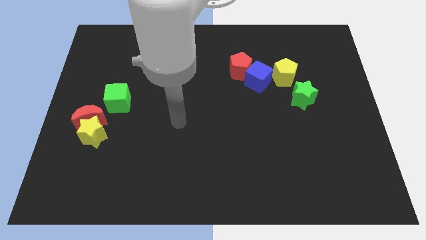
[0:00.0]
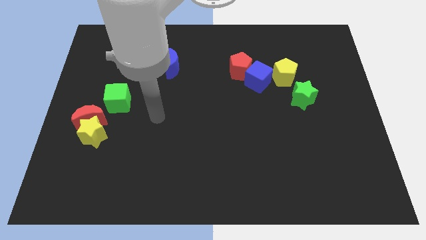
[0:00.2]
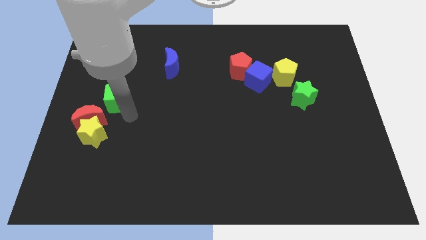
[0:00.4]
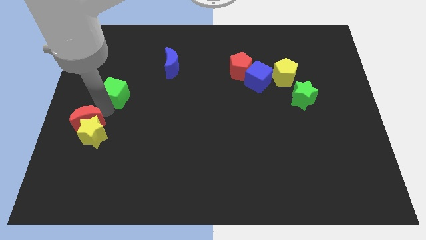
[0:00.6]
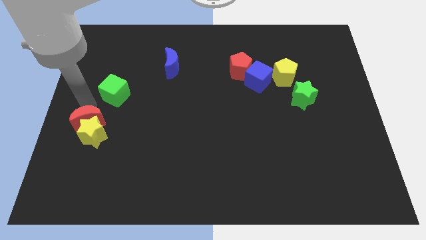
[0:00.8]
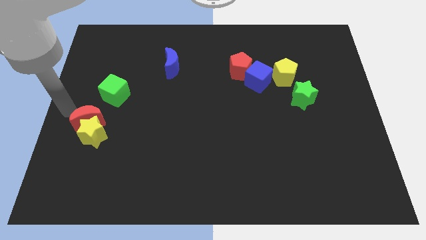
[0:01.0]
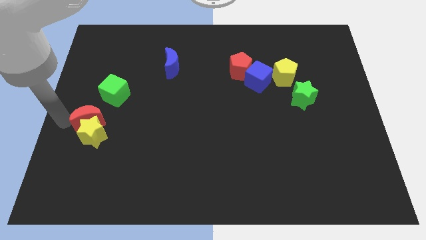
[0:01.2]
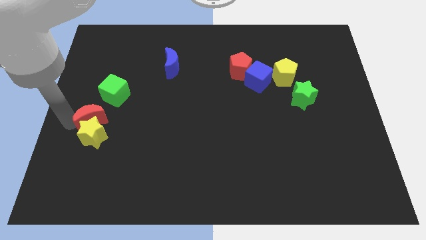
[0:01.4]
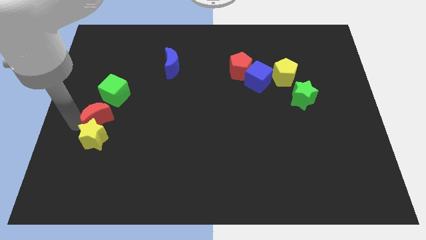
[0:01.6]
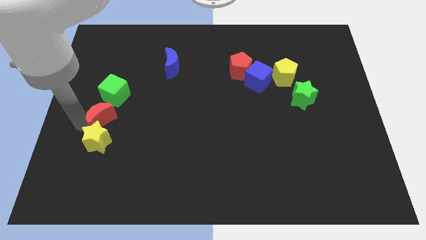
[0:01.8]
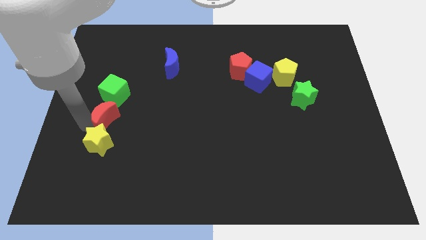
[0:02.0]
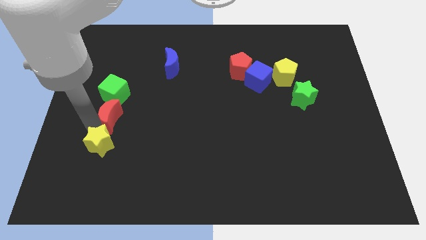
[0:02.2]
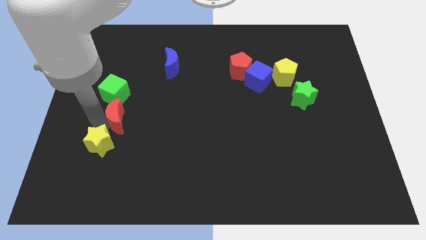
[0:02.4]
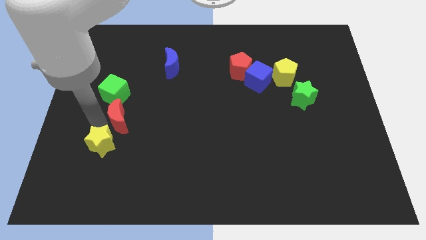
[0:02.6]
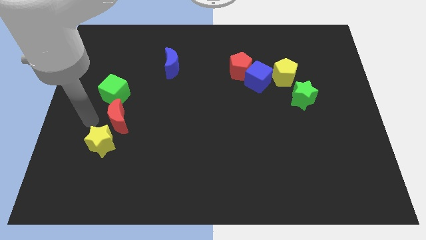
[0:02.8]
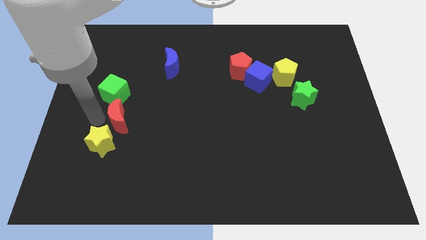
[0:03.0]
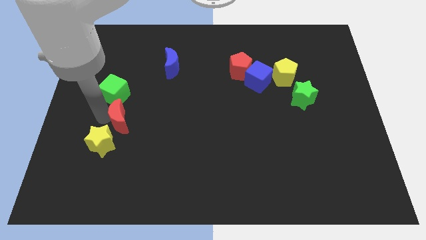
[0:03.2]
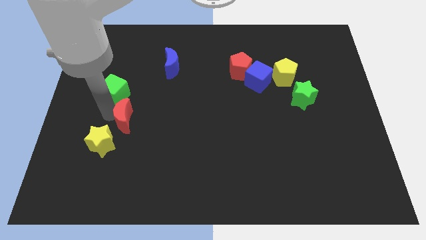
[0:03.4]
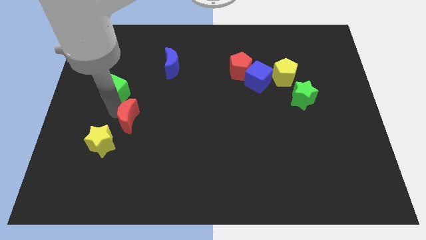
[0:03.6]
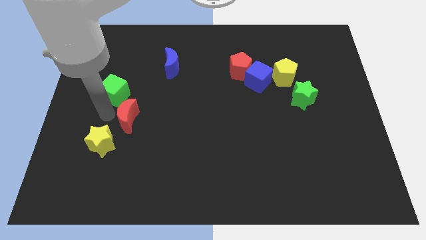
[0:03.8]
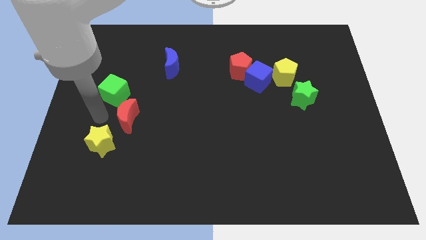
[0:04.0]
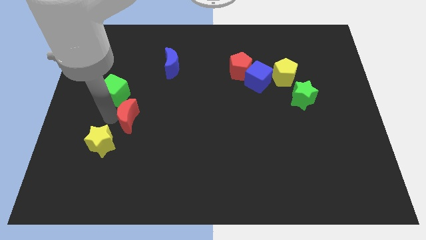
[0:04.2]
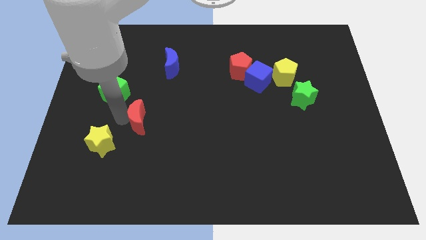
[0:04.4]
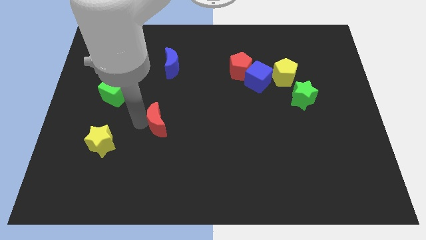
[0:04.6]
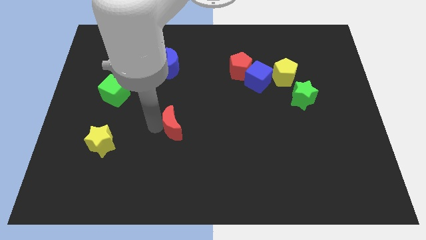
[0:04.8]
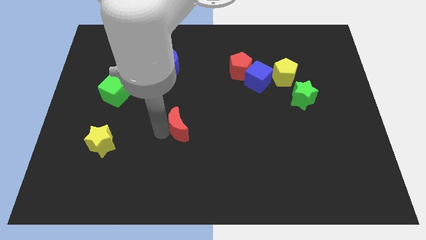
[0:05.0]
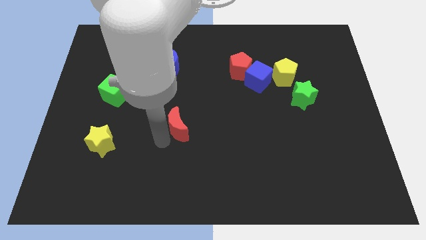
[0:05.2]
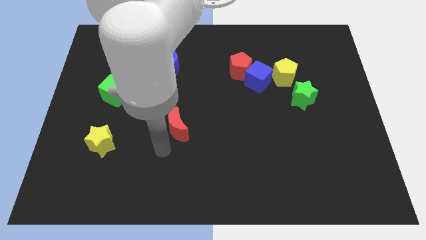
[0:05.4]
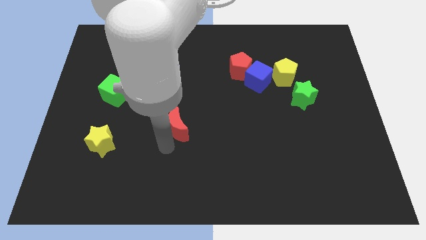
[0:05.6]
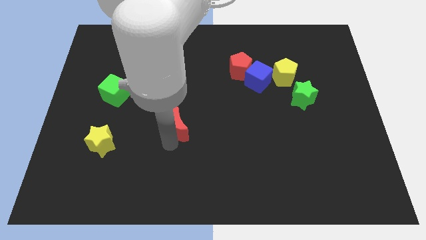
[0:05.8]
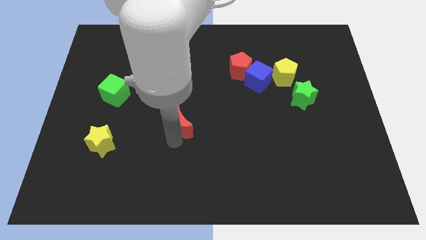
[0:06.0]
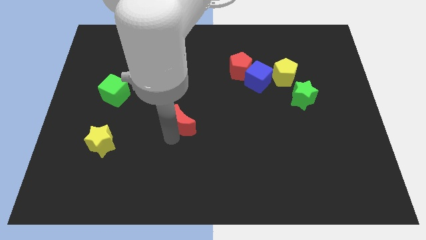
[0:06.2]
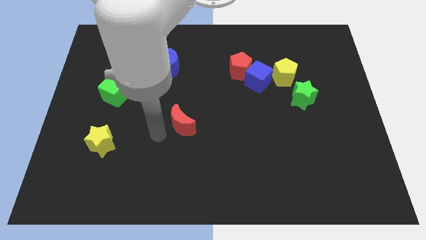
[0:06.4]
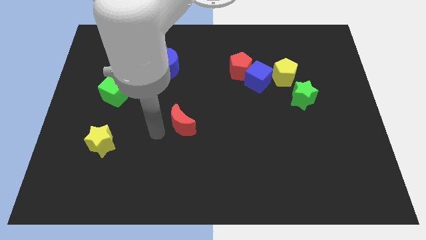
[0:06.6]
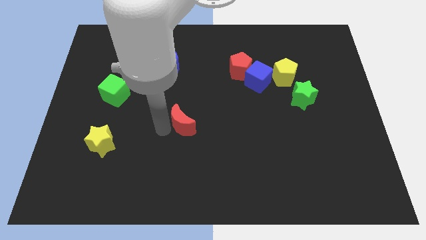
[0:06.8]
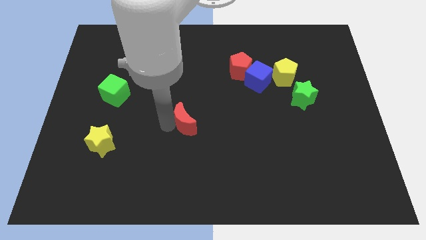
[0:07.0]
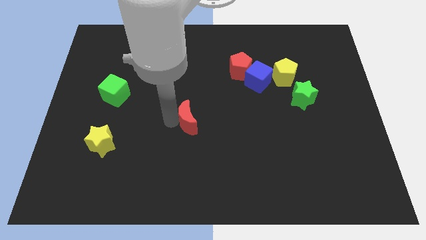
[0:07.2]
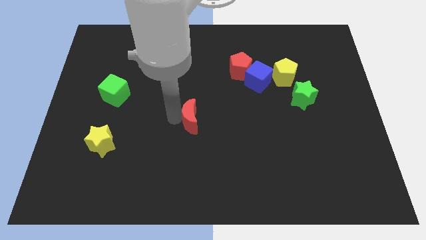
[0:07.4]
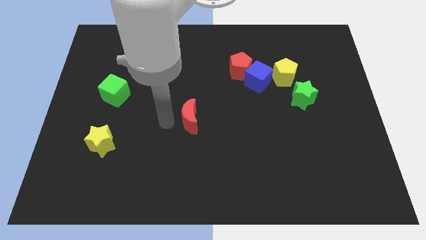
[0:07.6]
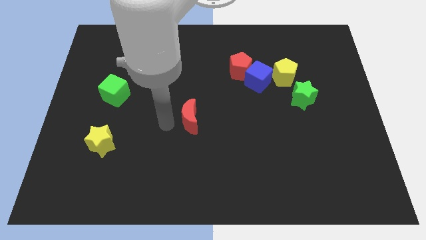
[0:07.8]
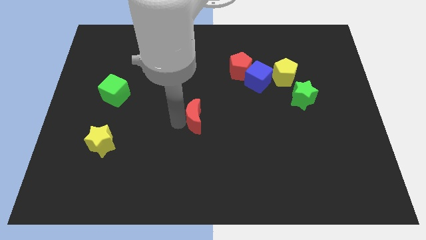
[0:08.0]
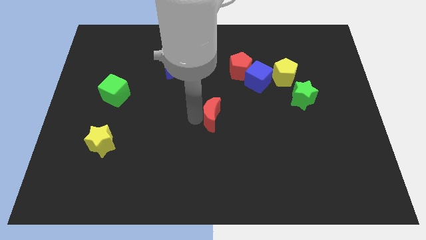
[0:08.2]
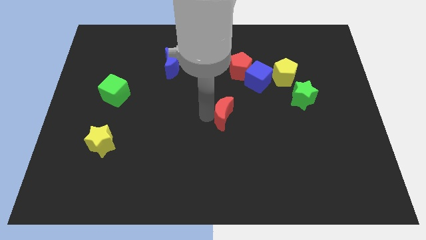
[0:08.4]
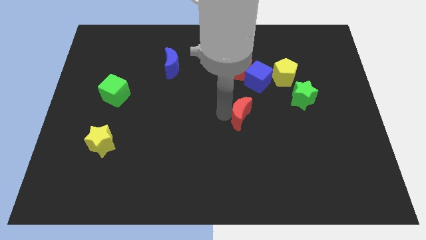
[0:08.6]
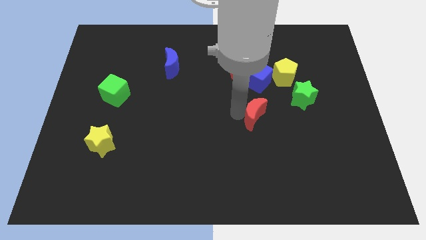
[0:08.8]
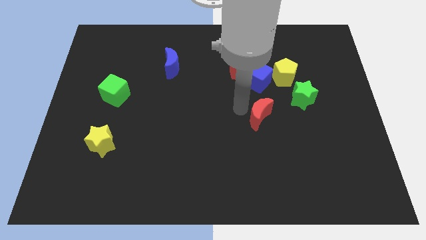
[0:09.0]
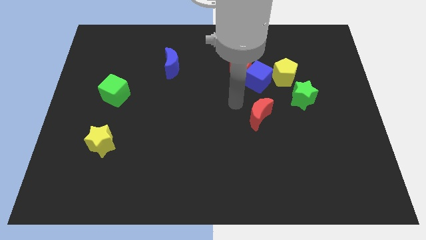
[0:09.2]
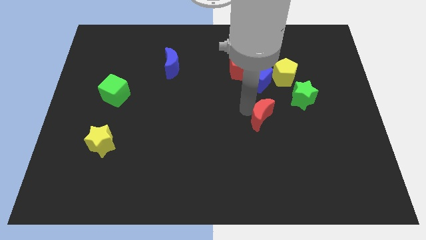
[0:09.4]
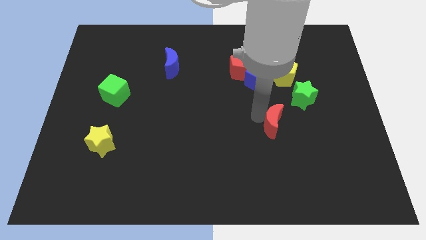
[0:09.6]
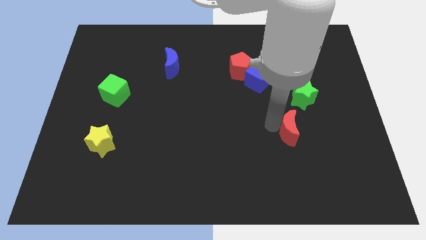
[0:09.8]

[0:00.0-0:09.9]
push the red moon to the bottom side of the green star

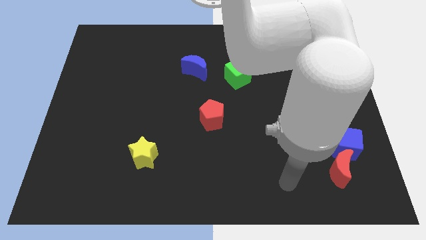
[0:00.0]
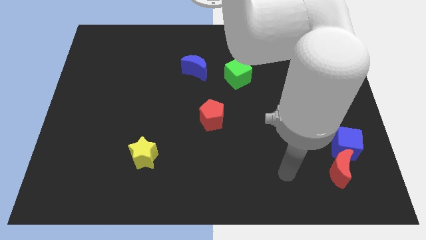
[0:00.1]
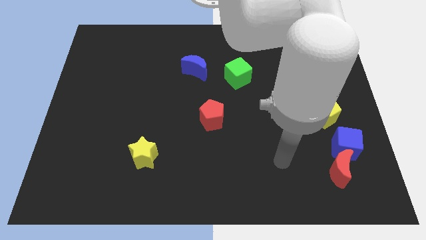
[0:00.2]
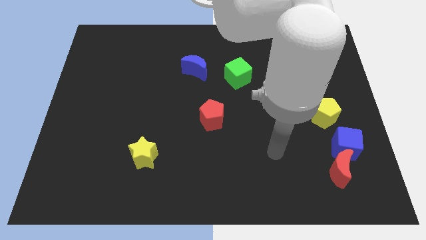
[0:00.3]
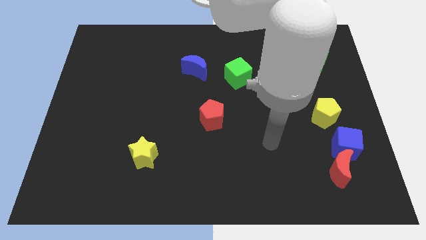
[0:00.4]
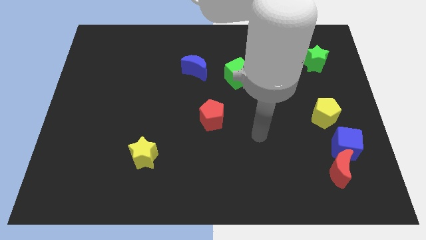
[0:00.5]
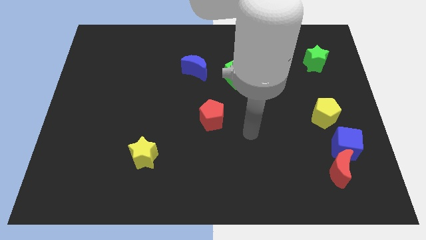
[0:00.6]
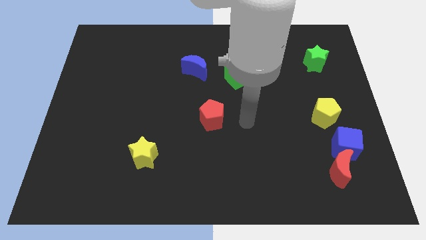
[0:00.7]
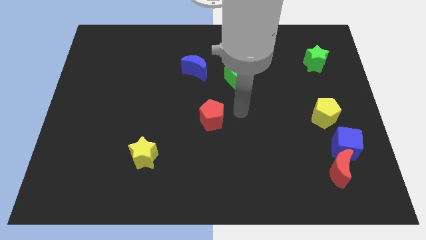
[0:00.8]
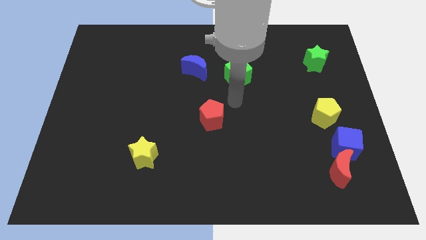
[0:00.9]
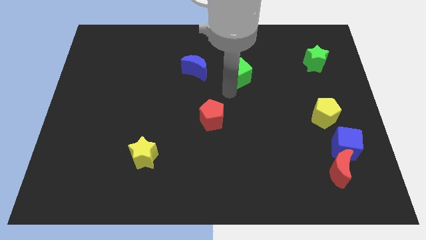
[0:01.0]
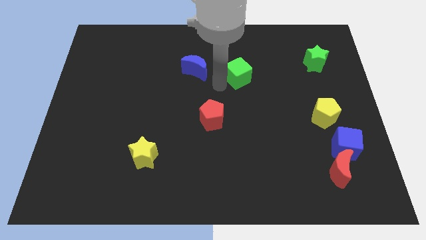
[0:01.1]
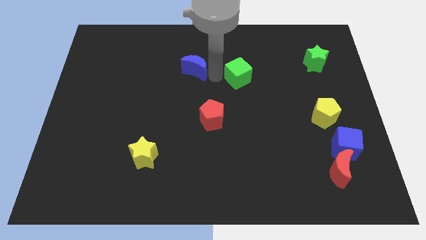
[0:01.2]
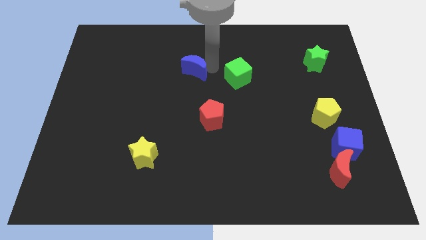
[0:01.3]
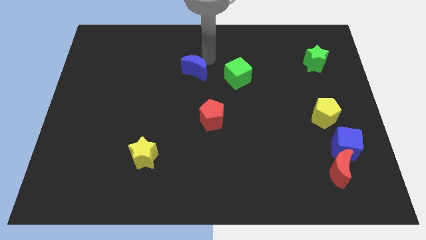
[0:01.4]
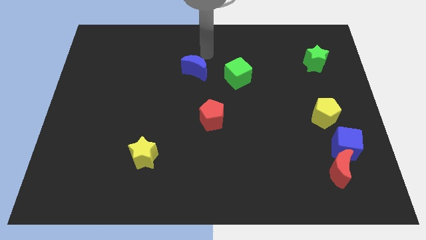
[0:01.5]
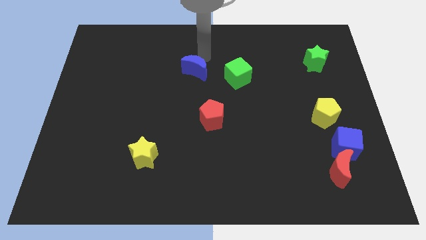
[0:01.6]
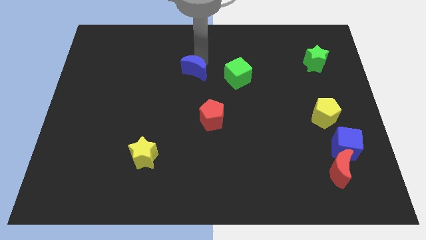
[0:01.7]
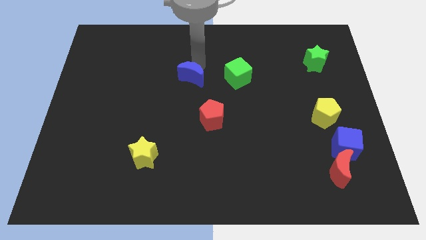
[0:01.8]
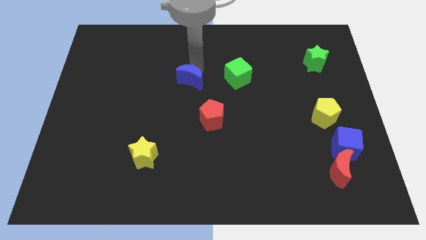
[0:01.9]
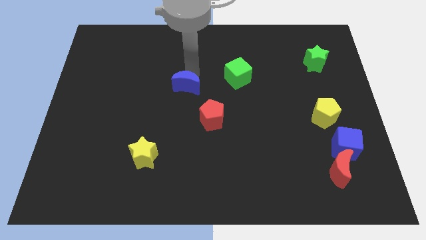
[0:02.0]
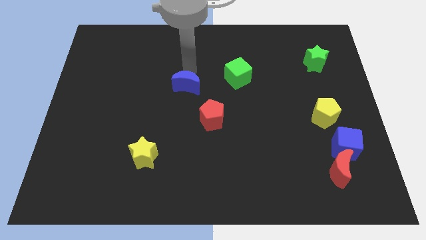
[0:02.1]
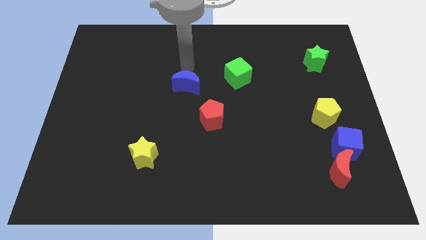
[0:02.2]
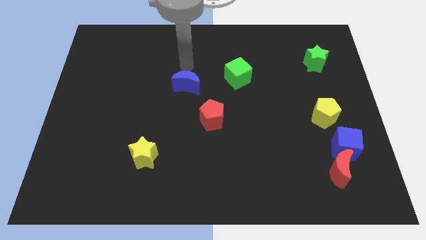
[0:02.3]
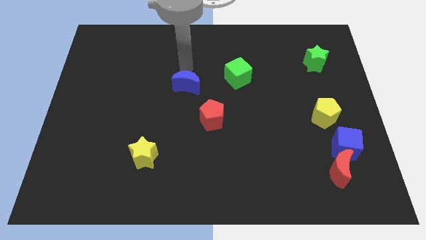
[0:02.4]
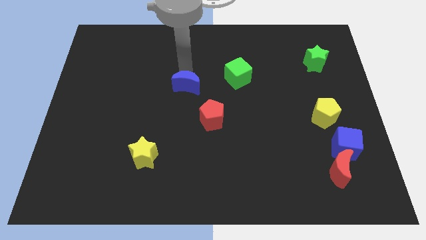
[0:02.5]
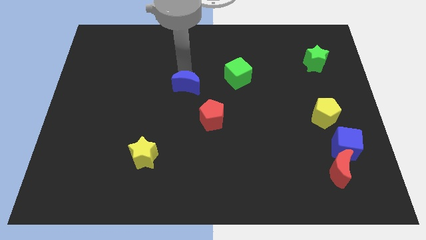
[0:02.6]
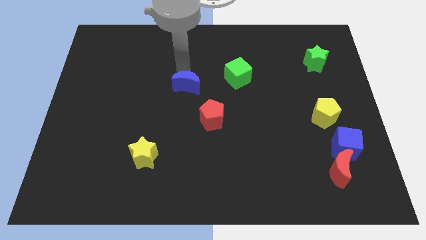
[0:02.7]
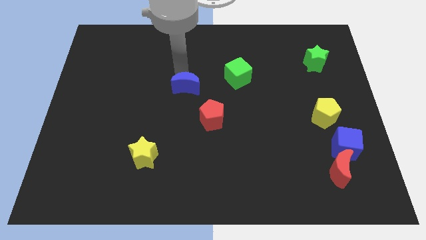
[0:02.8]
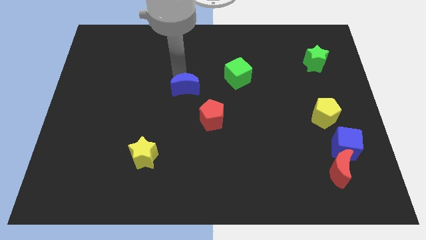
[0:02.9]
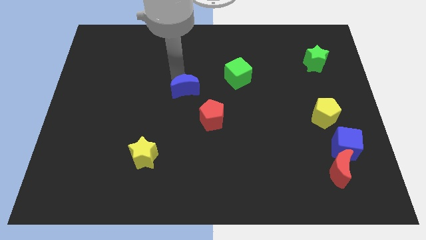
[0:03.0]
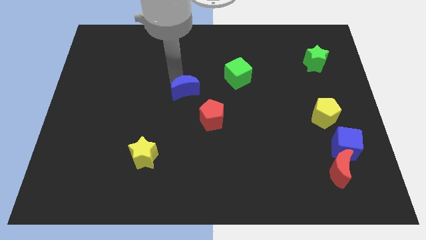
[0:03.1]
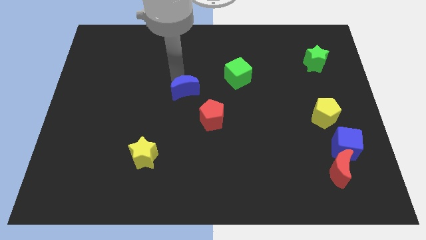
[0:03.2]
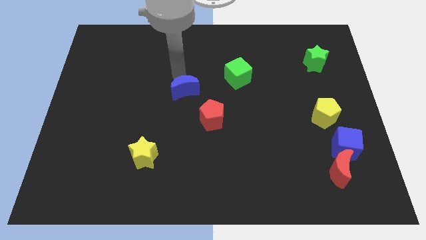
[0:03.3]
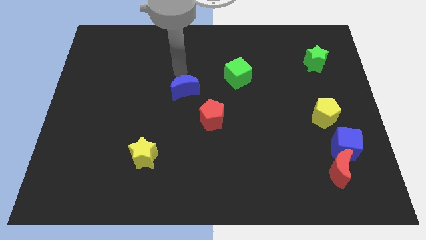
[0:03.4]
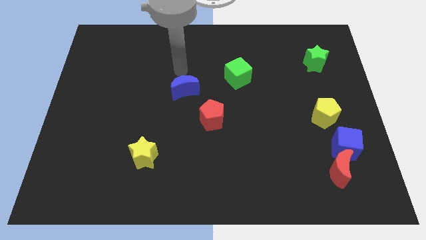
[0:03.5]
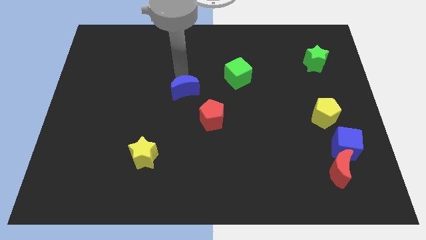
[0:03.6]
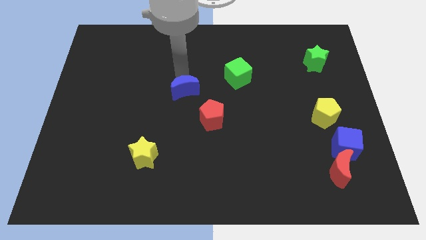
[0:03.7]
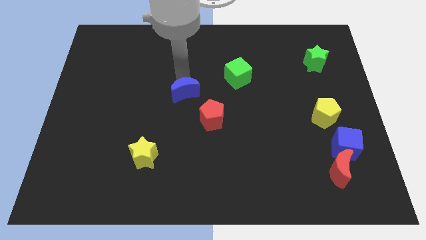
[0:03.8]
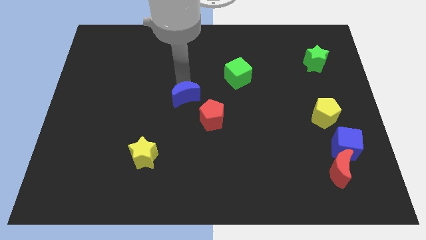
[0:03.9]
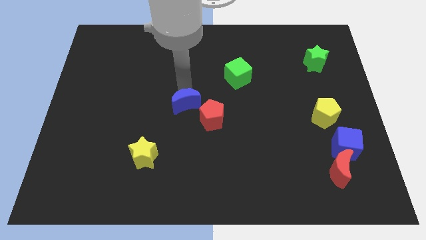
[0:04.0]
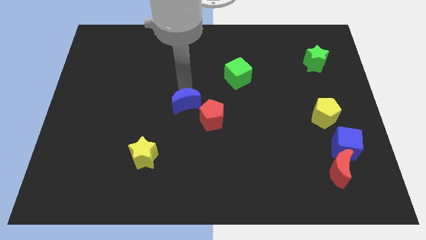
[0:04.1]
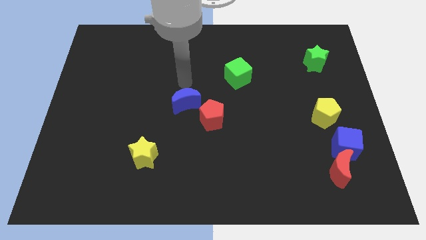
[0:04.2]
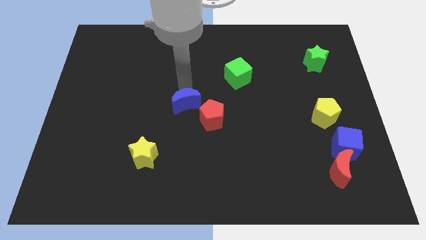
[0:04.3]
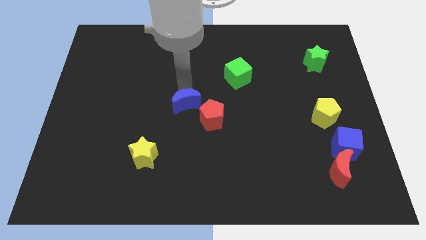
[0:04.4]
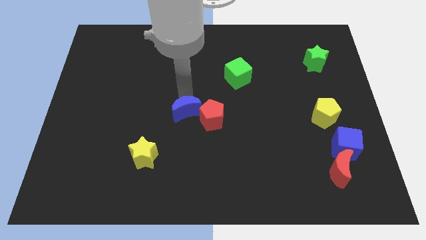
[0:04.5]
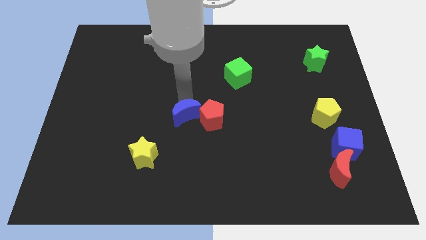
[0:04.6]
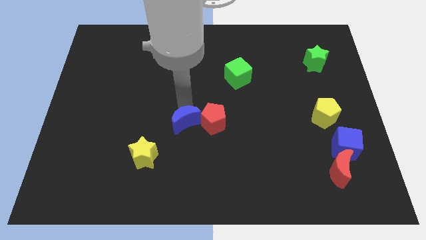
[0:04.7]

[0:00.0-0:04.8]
slide the blue moon to the bottom left side of the red pentagon
